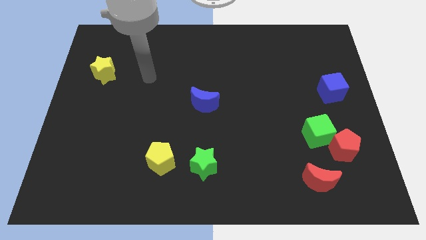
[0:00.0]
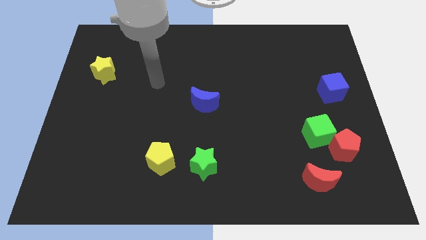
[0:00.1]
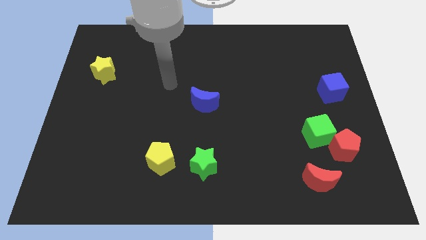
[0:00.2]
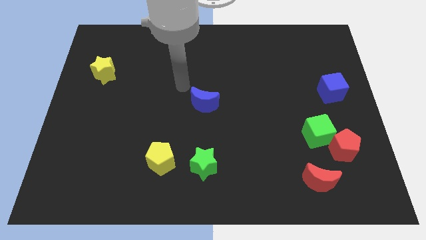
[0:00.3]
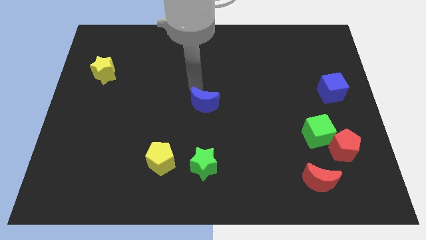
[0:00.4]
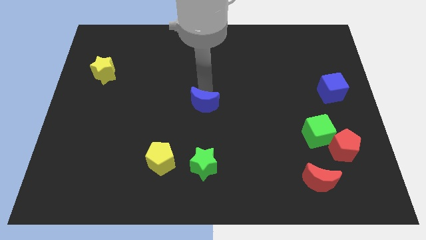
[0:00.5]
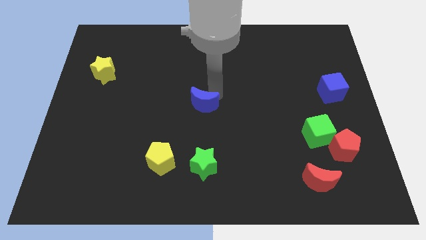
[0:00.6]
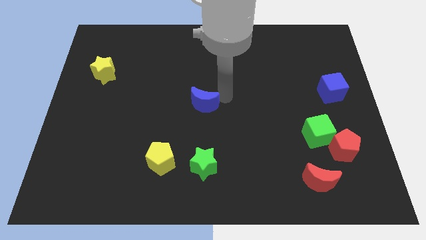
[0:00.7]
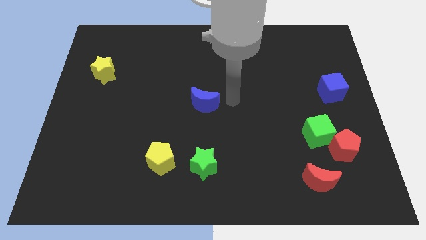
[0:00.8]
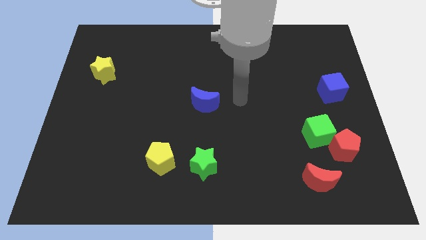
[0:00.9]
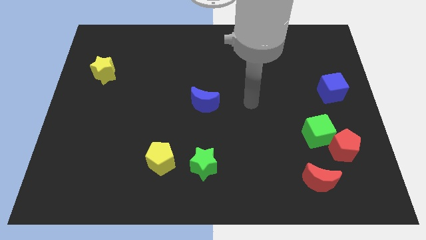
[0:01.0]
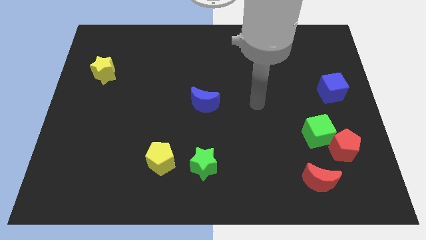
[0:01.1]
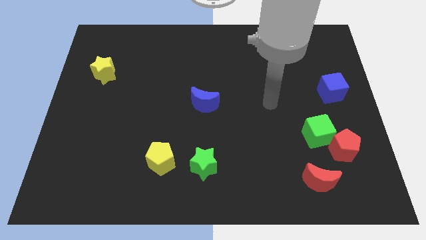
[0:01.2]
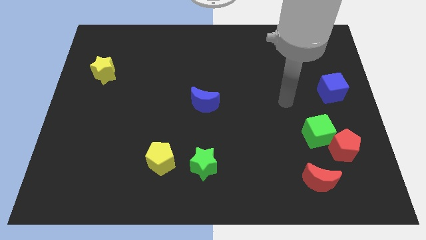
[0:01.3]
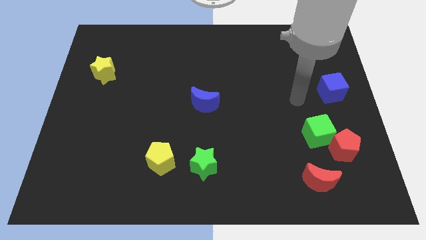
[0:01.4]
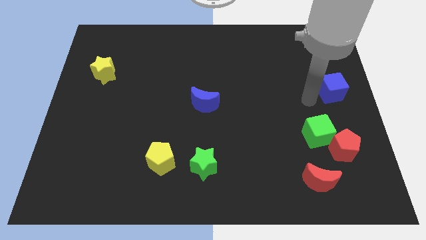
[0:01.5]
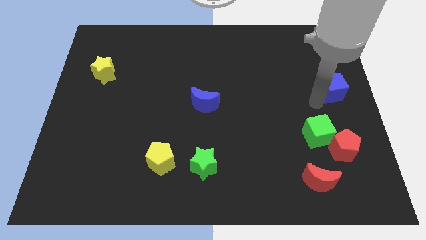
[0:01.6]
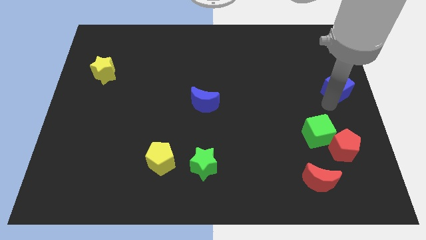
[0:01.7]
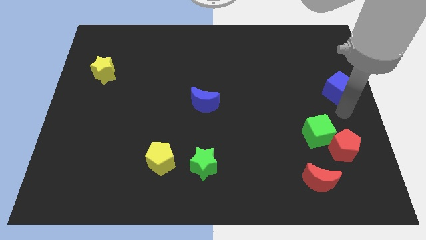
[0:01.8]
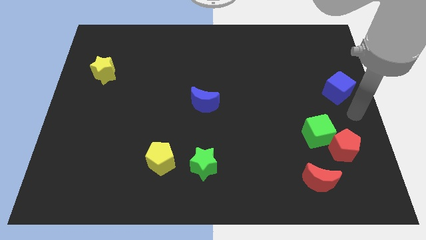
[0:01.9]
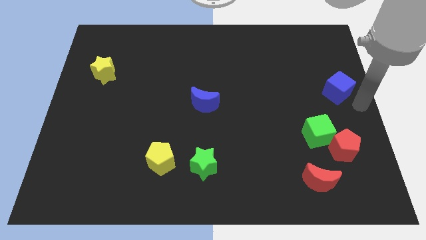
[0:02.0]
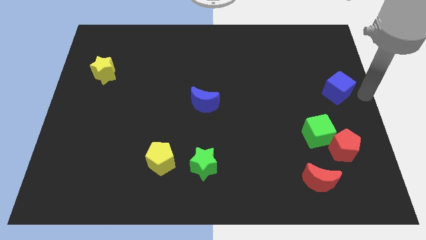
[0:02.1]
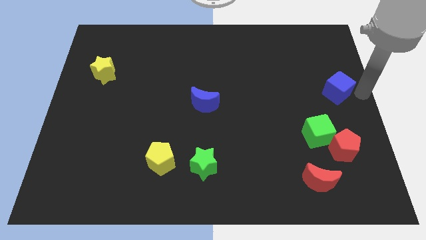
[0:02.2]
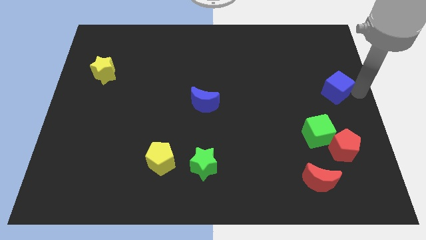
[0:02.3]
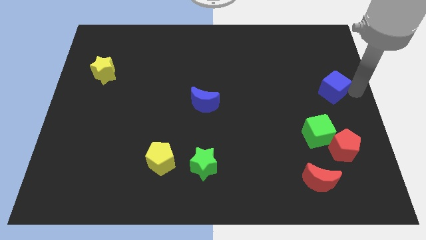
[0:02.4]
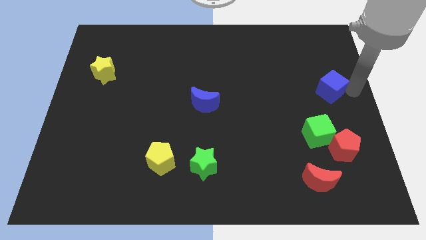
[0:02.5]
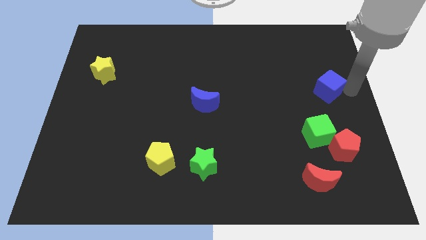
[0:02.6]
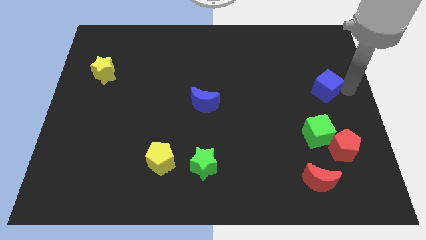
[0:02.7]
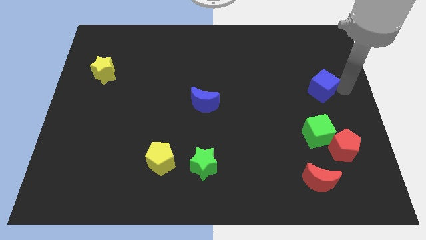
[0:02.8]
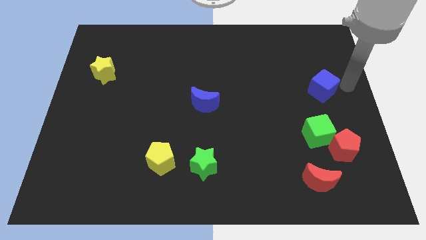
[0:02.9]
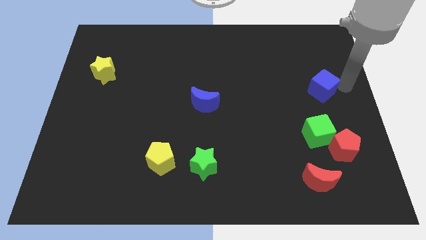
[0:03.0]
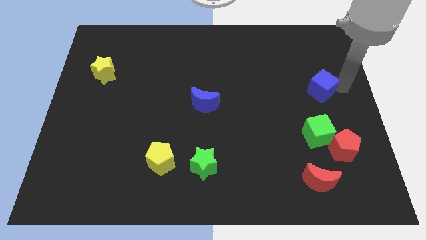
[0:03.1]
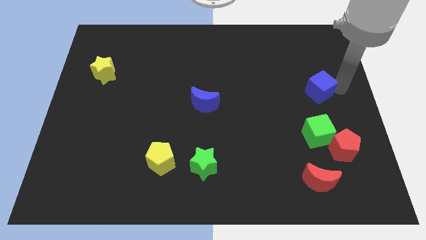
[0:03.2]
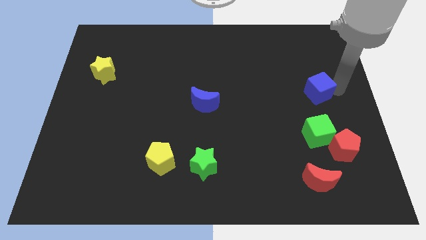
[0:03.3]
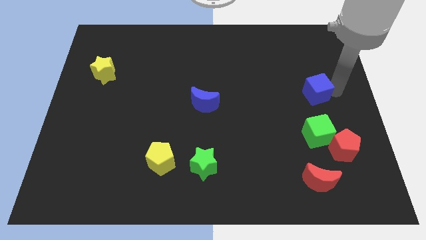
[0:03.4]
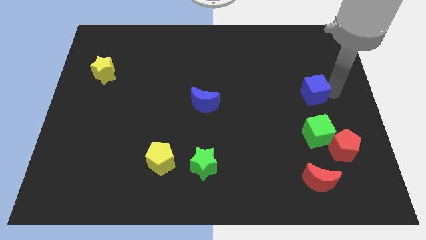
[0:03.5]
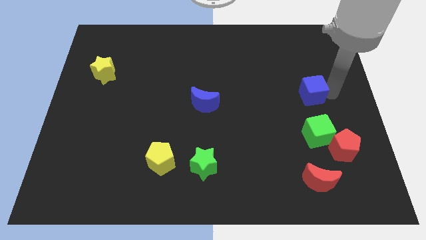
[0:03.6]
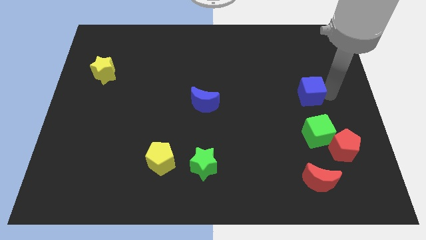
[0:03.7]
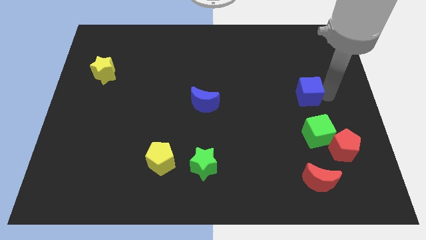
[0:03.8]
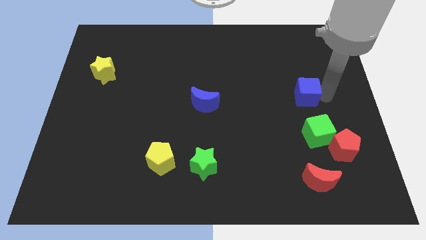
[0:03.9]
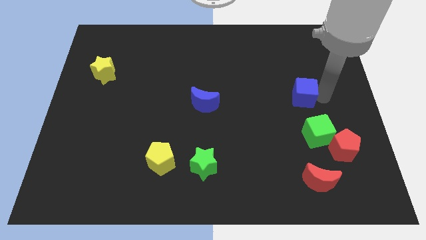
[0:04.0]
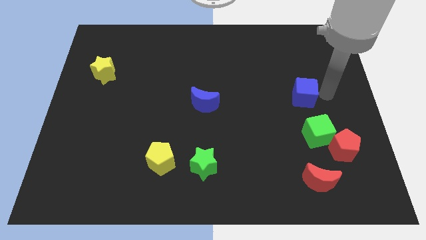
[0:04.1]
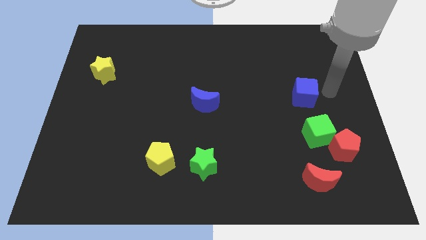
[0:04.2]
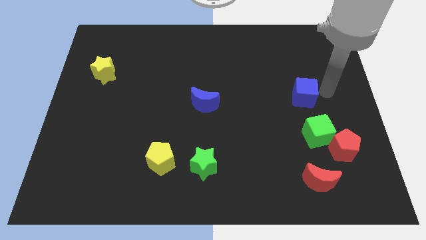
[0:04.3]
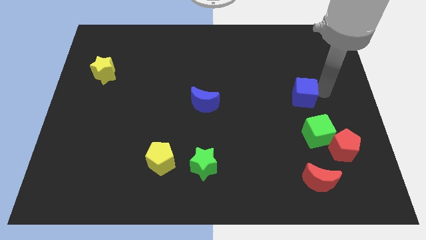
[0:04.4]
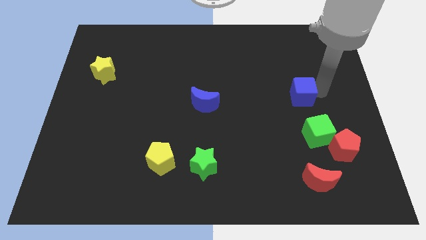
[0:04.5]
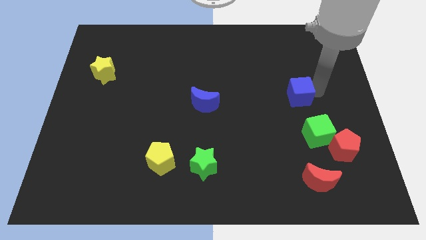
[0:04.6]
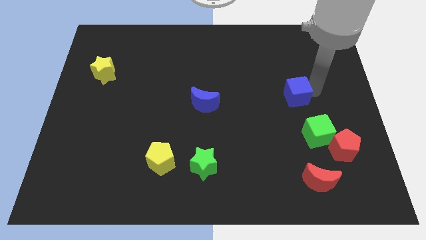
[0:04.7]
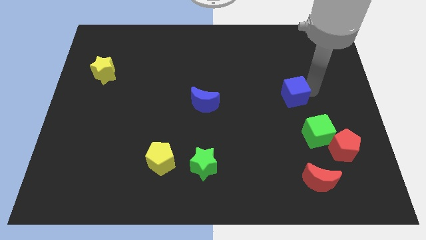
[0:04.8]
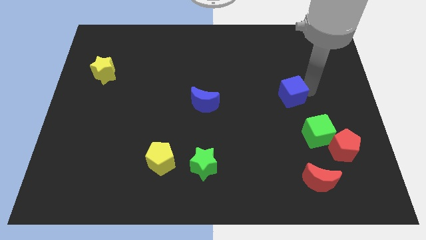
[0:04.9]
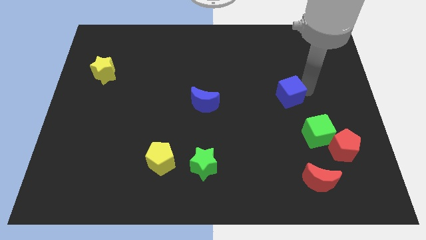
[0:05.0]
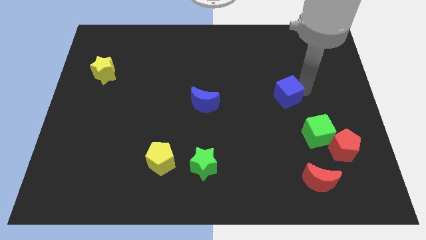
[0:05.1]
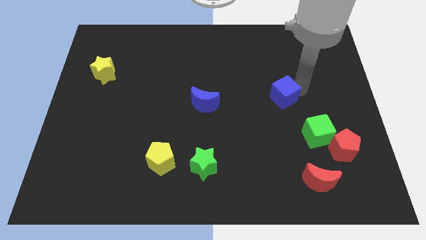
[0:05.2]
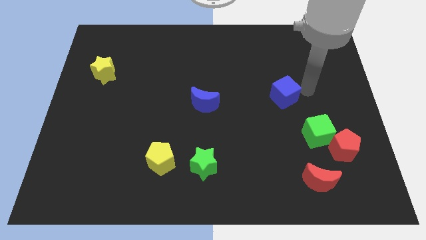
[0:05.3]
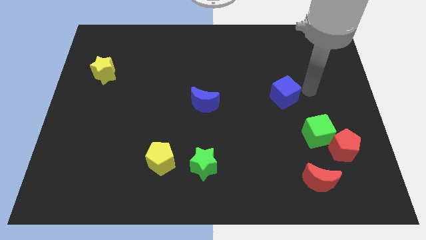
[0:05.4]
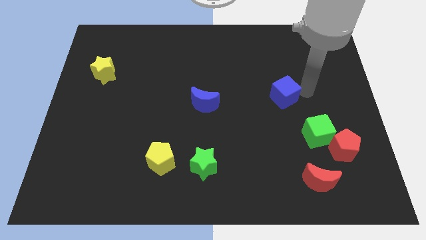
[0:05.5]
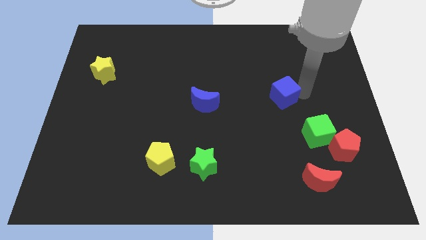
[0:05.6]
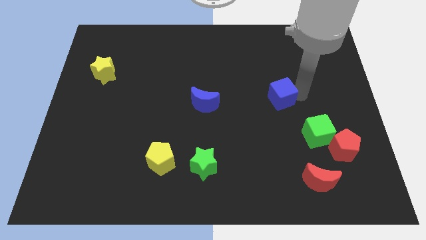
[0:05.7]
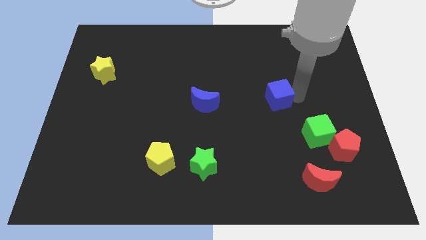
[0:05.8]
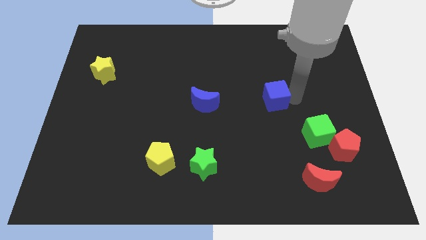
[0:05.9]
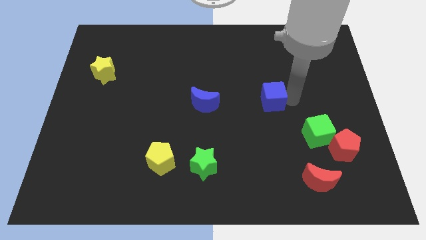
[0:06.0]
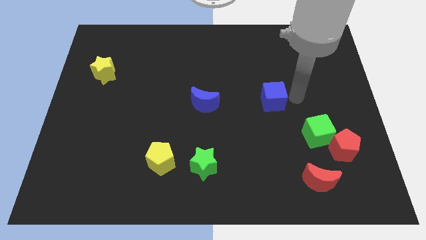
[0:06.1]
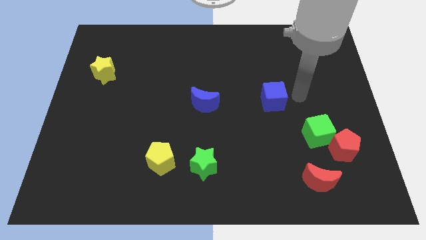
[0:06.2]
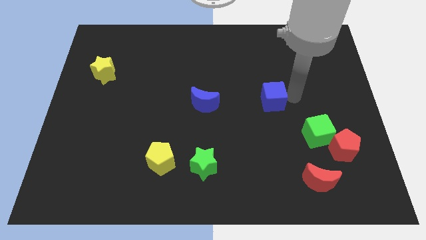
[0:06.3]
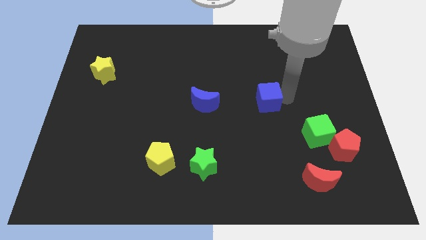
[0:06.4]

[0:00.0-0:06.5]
slide the blue cube to the right of the blue moon

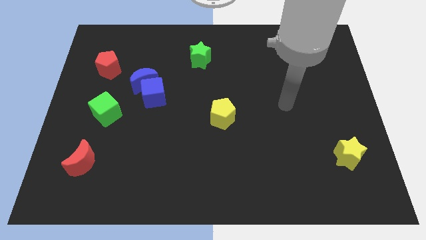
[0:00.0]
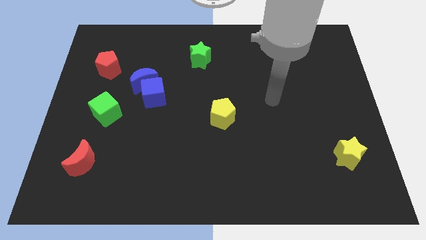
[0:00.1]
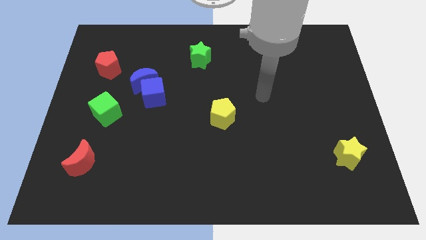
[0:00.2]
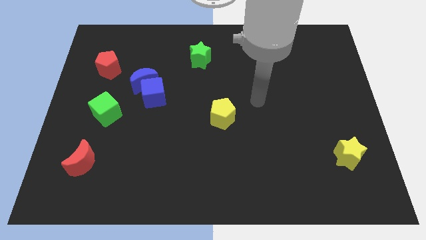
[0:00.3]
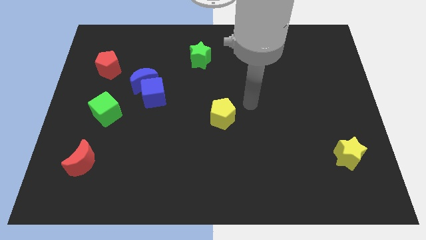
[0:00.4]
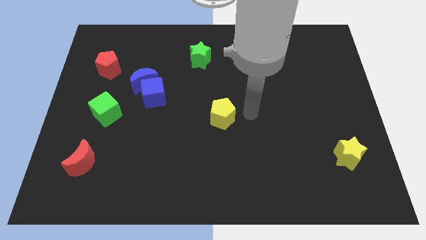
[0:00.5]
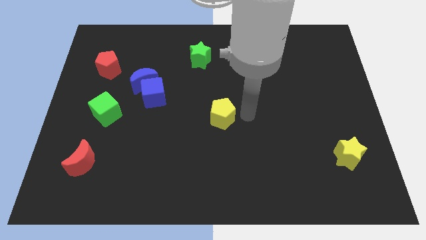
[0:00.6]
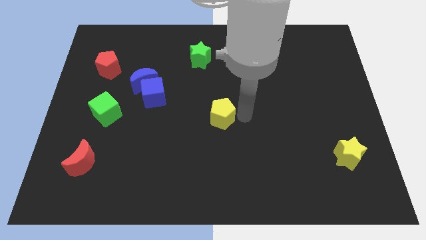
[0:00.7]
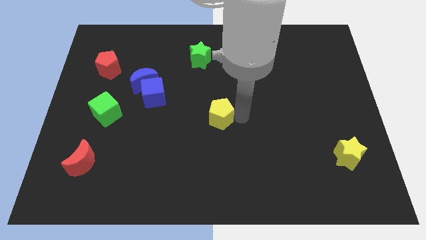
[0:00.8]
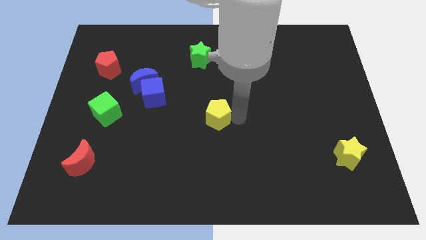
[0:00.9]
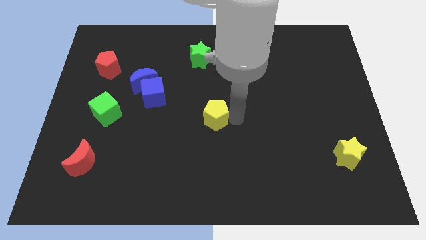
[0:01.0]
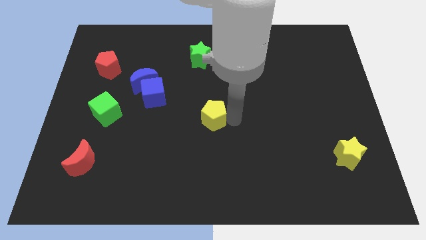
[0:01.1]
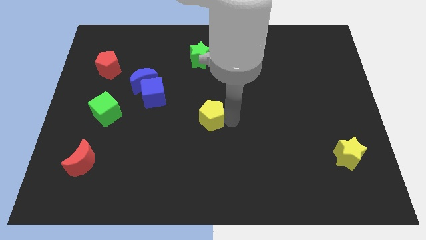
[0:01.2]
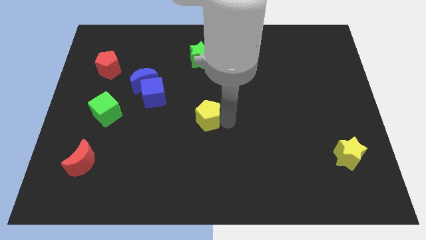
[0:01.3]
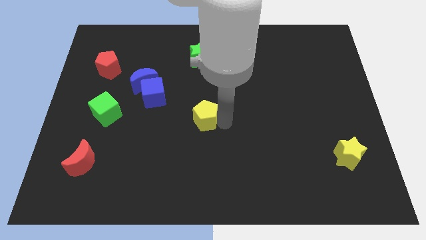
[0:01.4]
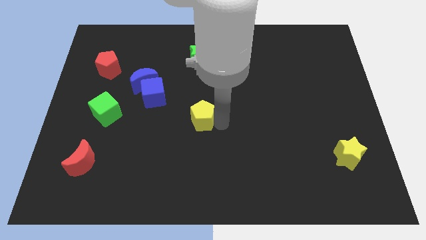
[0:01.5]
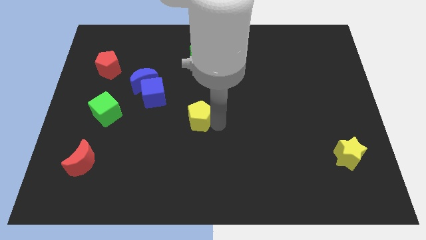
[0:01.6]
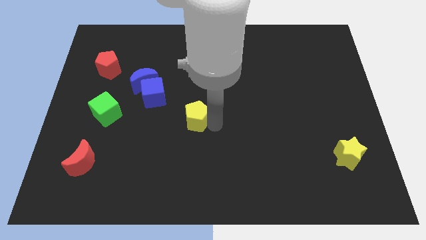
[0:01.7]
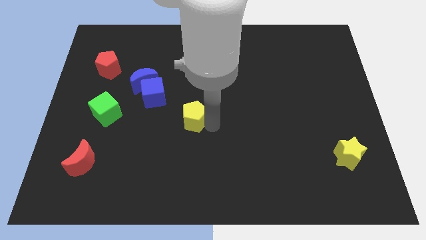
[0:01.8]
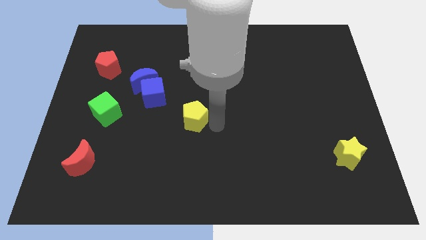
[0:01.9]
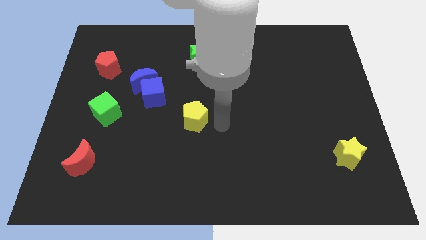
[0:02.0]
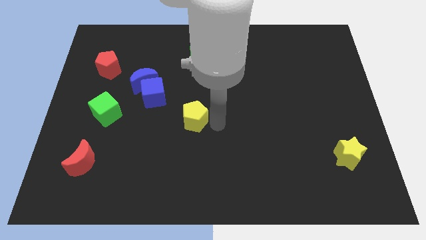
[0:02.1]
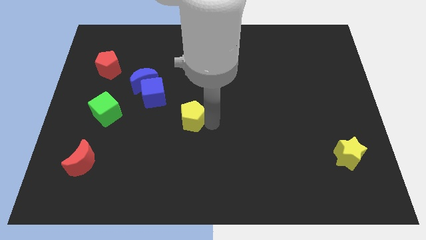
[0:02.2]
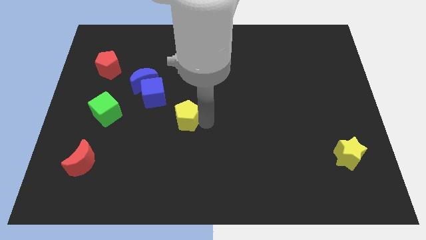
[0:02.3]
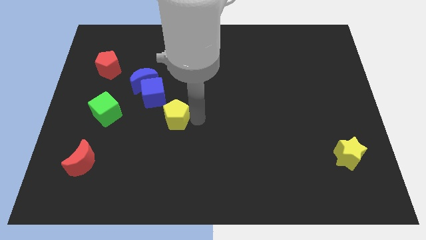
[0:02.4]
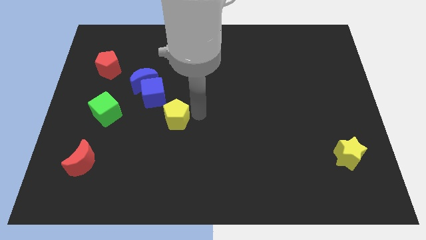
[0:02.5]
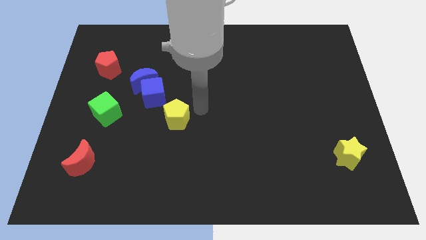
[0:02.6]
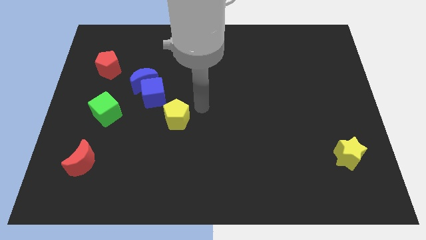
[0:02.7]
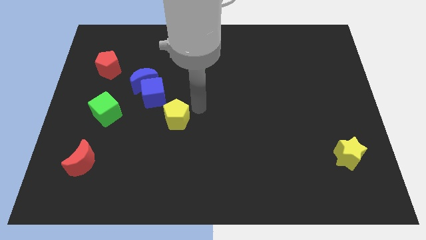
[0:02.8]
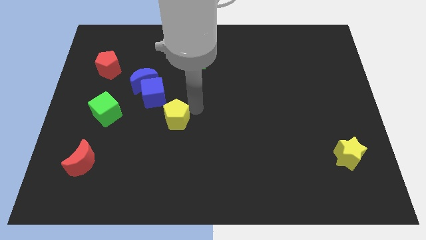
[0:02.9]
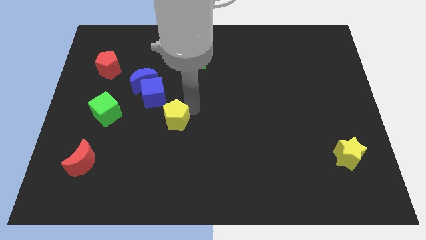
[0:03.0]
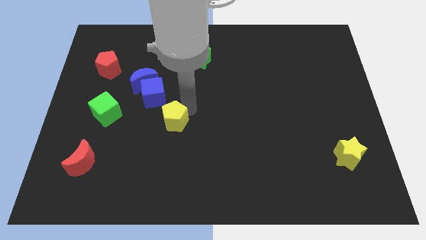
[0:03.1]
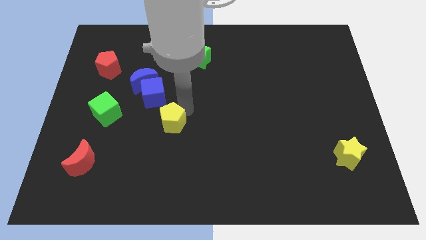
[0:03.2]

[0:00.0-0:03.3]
push the yellow pentagon below the blue cube
